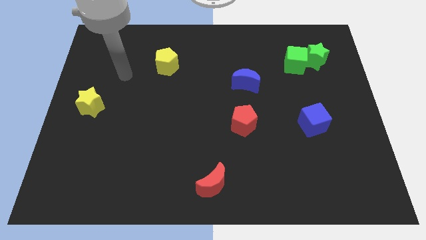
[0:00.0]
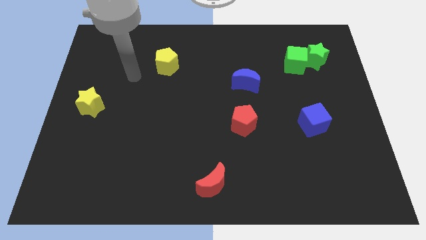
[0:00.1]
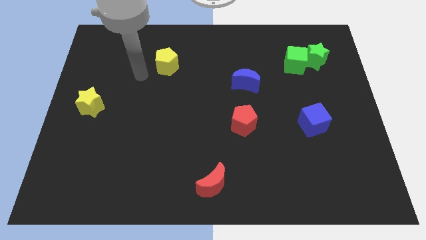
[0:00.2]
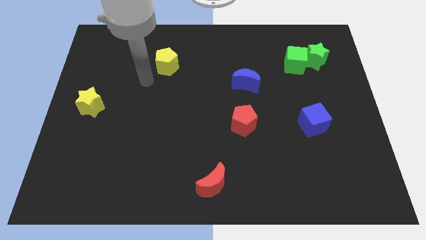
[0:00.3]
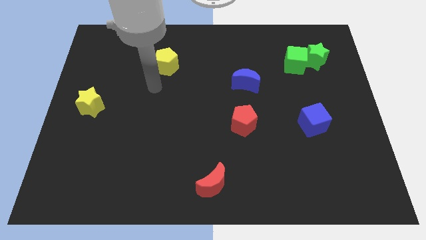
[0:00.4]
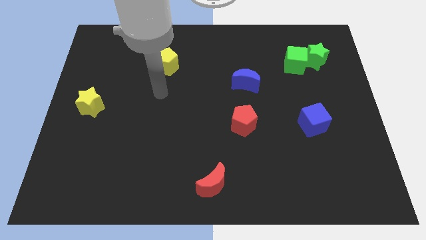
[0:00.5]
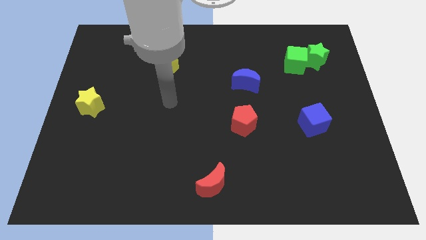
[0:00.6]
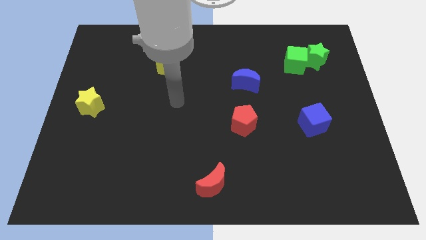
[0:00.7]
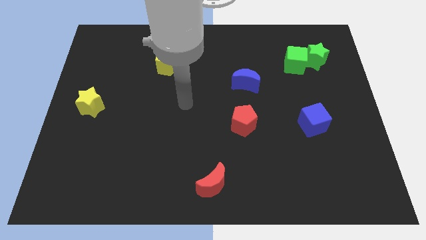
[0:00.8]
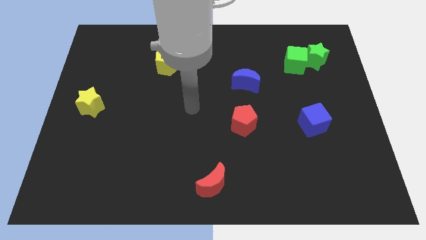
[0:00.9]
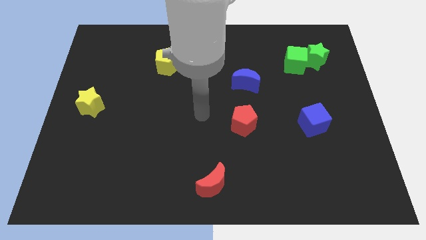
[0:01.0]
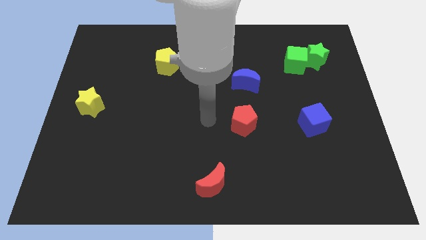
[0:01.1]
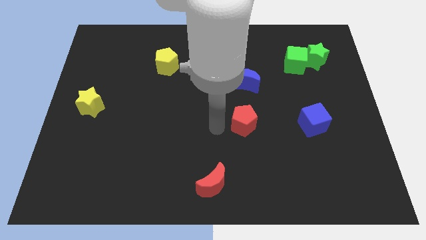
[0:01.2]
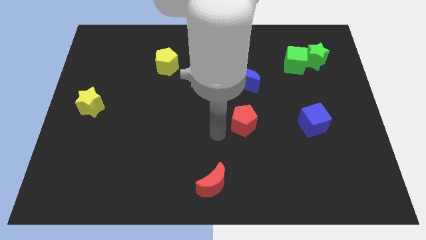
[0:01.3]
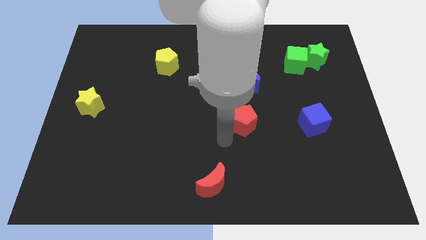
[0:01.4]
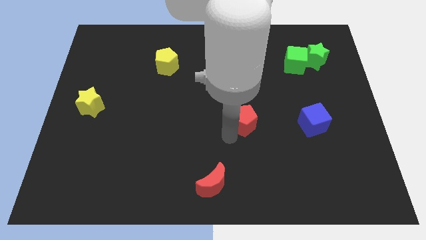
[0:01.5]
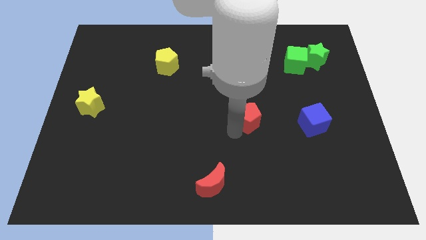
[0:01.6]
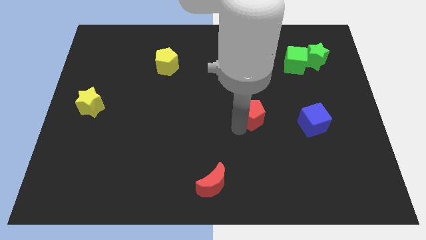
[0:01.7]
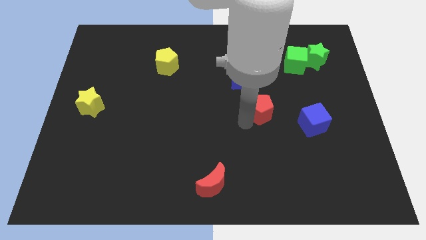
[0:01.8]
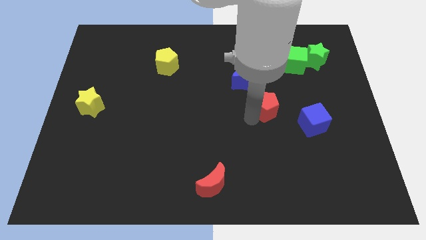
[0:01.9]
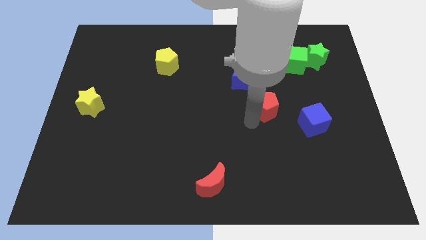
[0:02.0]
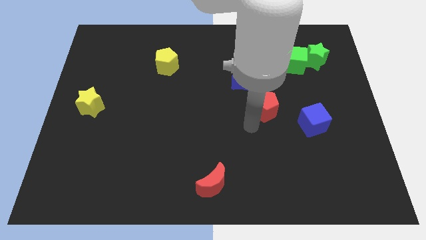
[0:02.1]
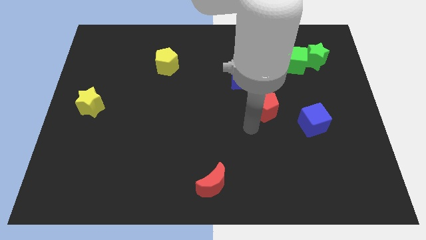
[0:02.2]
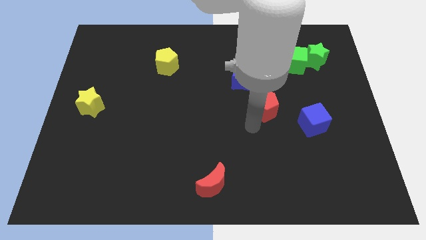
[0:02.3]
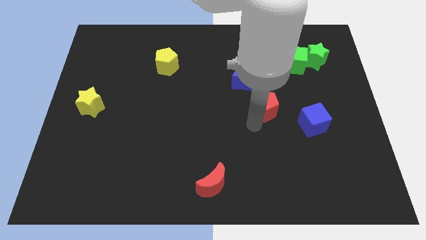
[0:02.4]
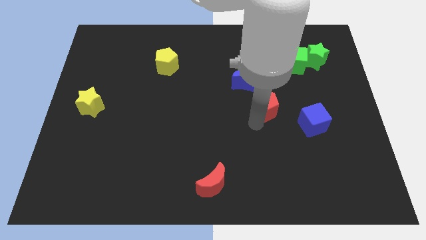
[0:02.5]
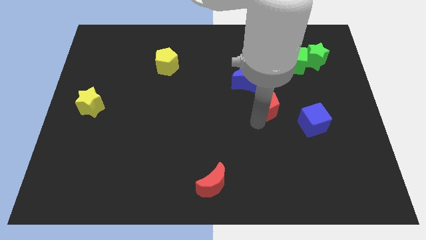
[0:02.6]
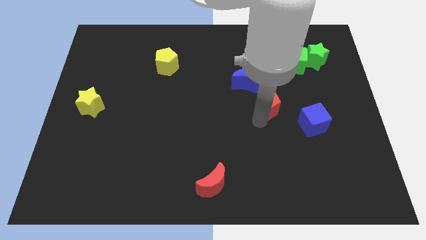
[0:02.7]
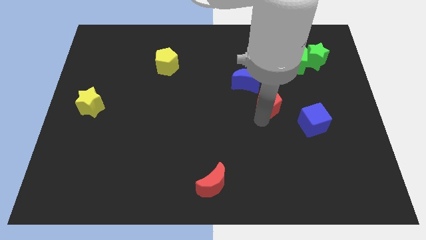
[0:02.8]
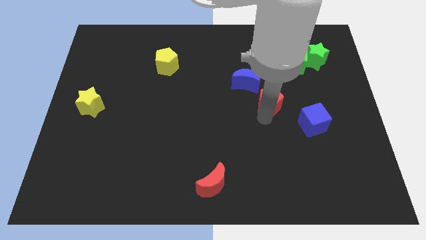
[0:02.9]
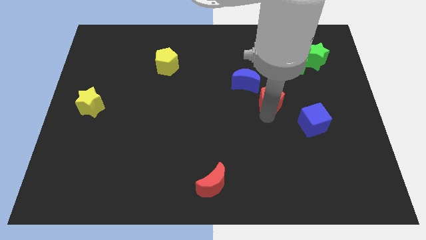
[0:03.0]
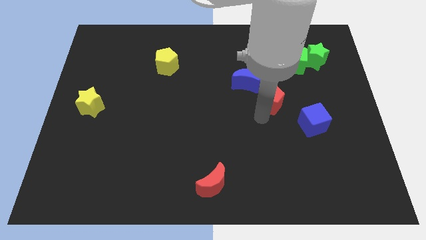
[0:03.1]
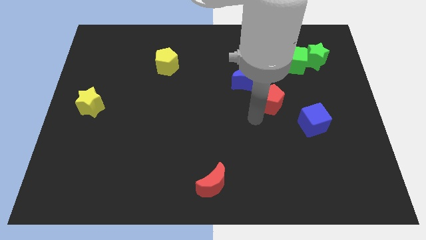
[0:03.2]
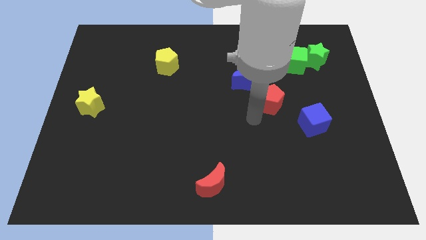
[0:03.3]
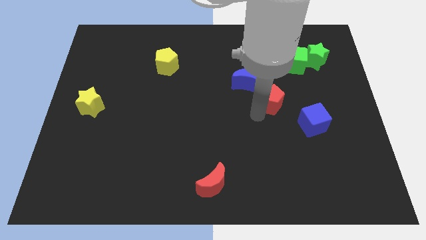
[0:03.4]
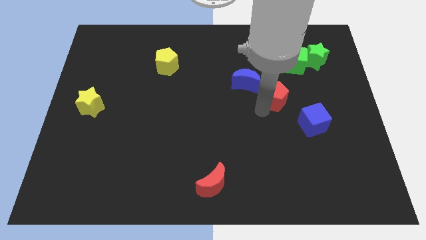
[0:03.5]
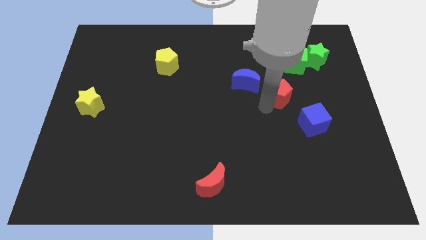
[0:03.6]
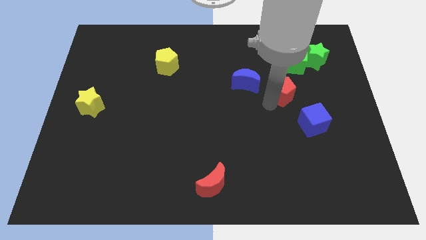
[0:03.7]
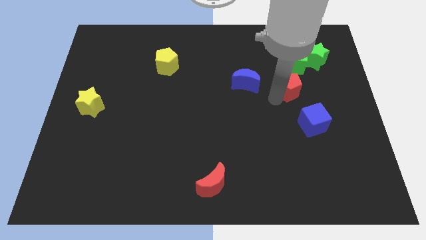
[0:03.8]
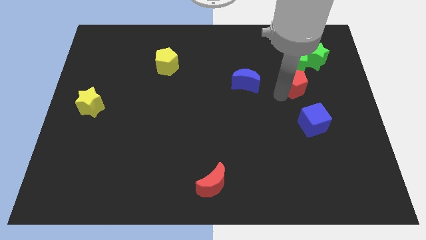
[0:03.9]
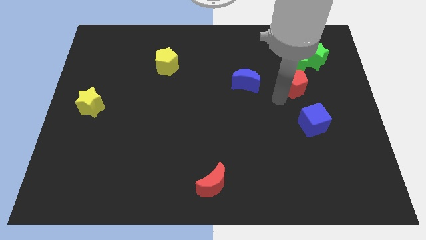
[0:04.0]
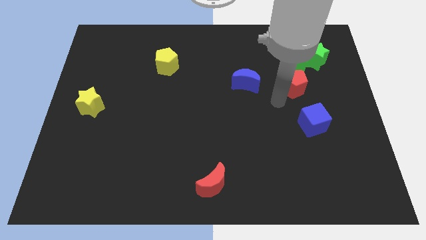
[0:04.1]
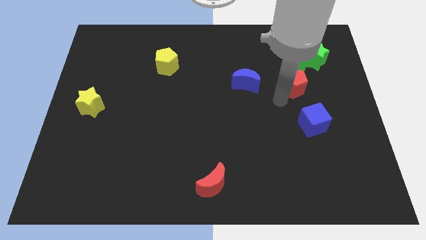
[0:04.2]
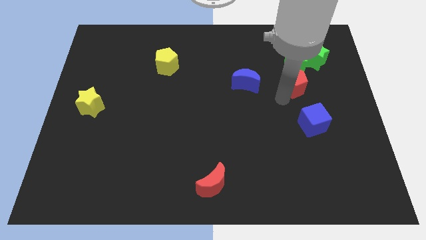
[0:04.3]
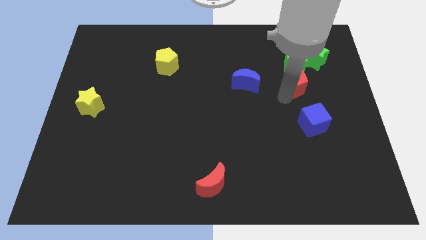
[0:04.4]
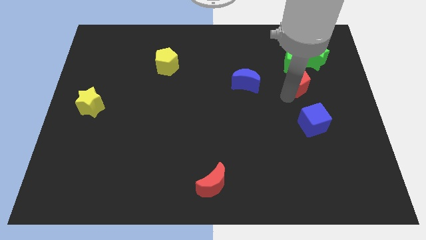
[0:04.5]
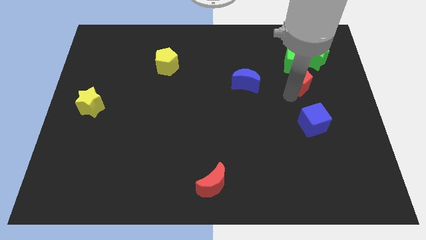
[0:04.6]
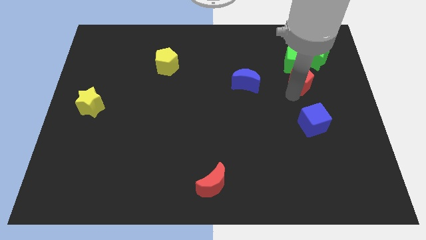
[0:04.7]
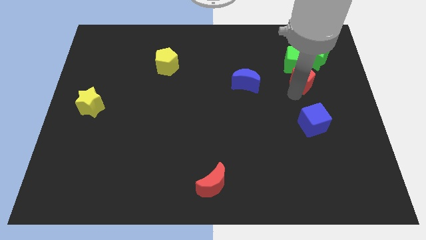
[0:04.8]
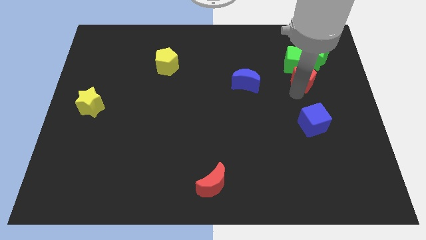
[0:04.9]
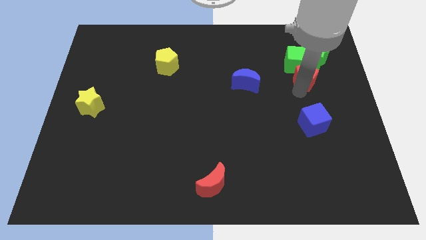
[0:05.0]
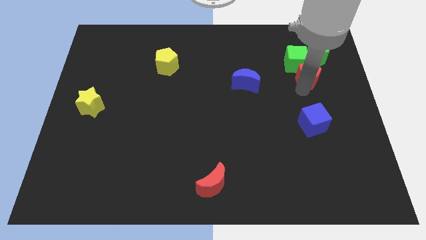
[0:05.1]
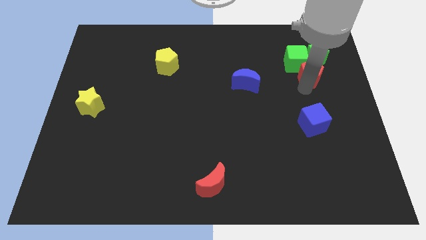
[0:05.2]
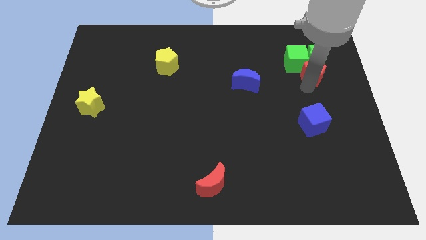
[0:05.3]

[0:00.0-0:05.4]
put the red pentagon to the green star

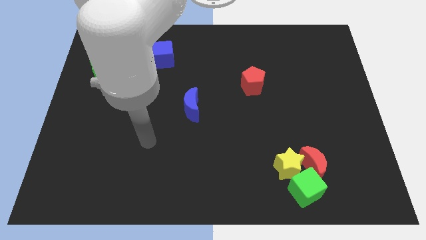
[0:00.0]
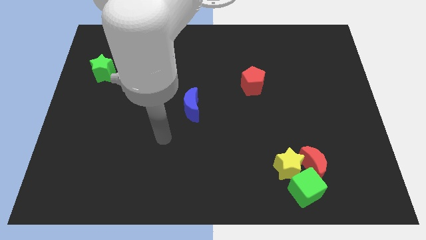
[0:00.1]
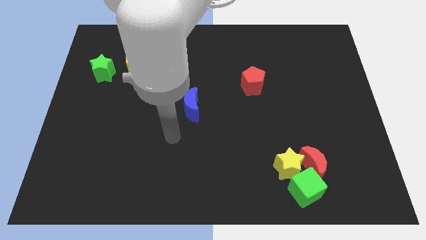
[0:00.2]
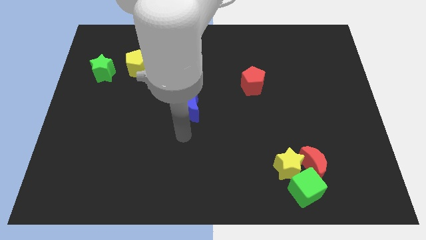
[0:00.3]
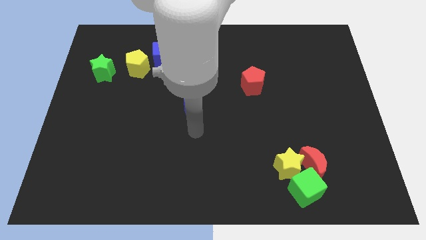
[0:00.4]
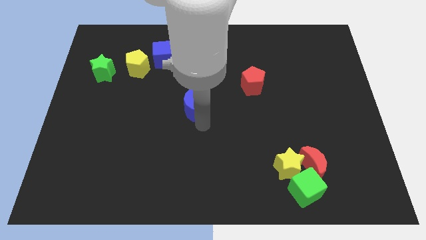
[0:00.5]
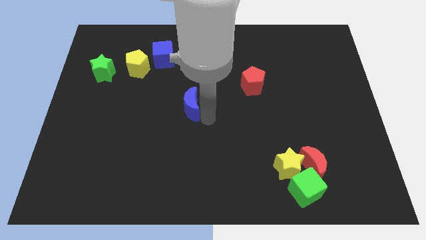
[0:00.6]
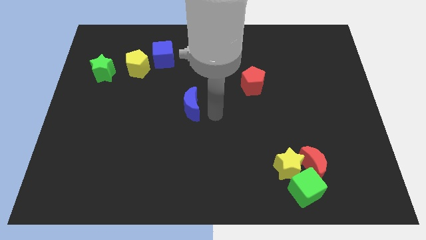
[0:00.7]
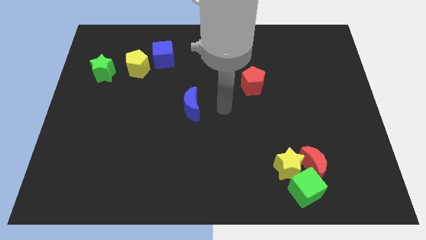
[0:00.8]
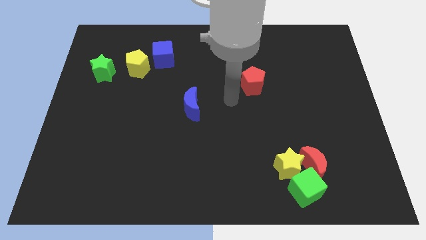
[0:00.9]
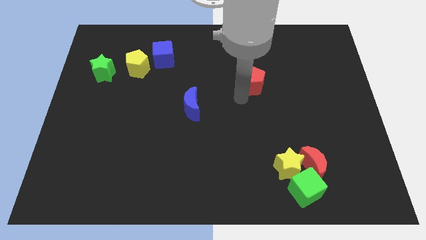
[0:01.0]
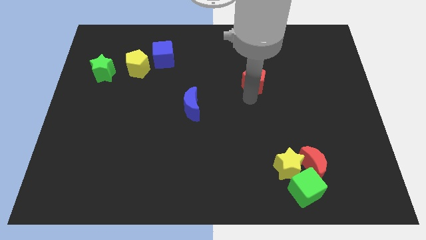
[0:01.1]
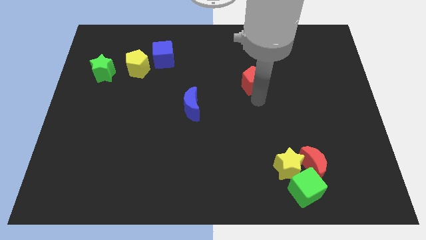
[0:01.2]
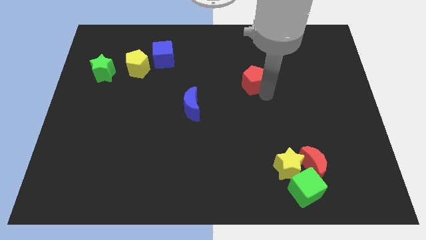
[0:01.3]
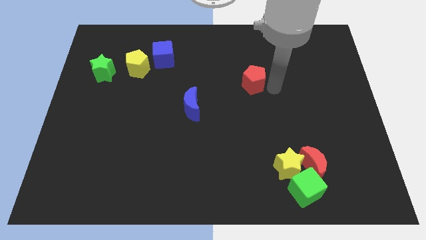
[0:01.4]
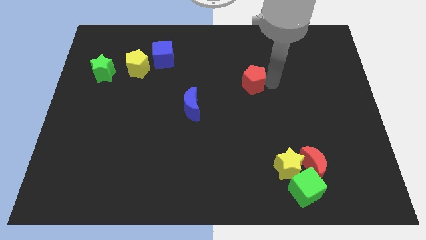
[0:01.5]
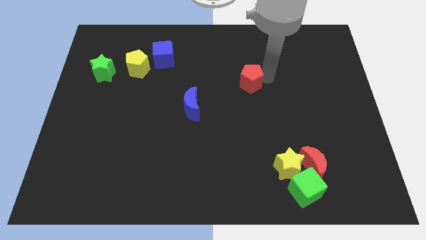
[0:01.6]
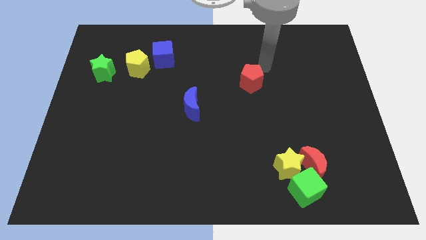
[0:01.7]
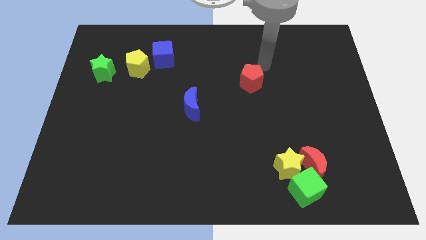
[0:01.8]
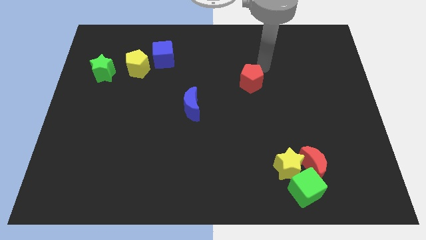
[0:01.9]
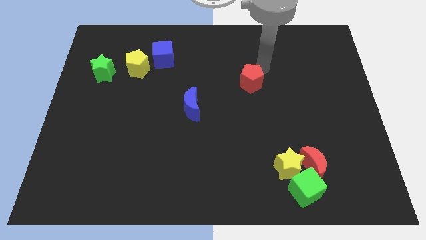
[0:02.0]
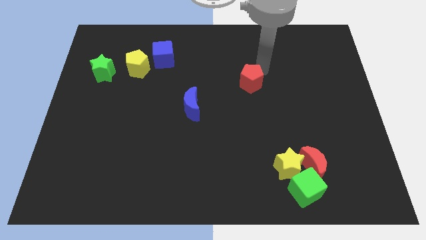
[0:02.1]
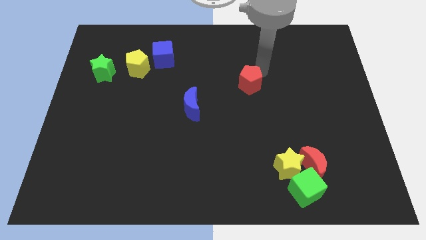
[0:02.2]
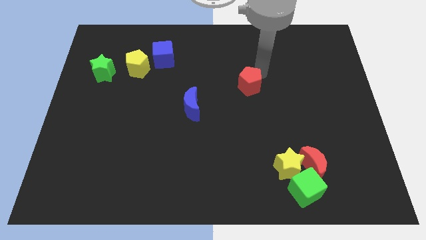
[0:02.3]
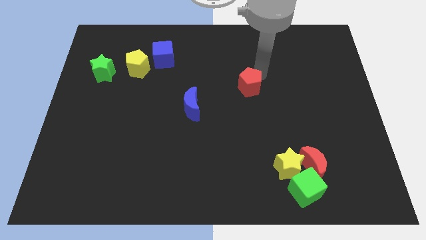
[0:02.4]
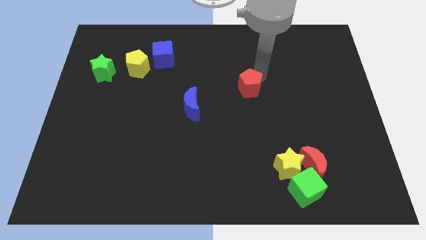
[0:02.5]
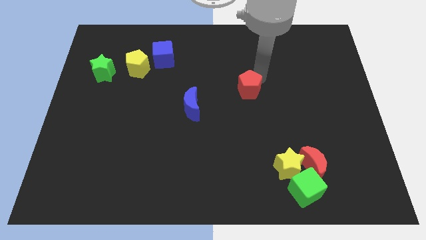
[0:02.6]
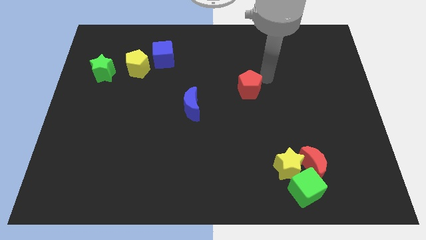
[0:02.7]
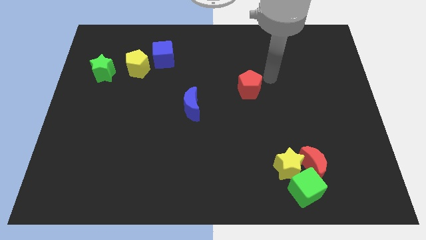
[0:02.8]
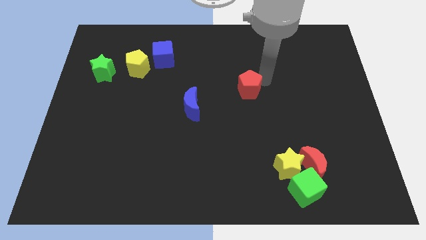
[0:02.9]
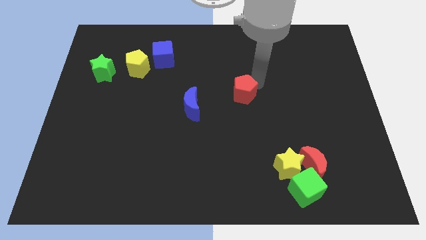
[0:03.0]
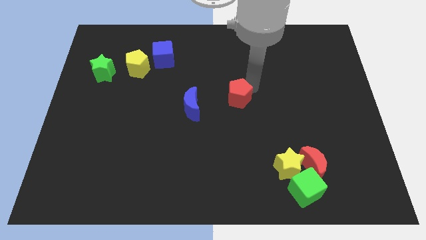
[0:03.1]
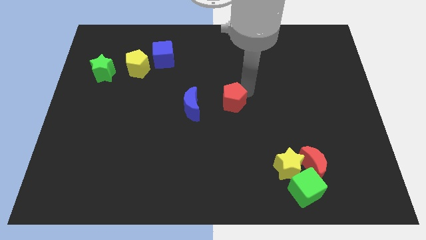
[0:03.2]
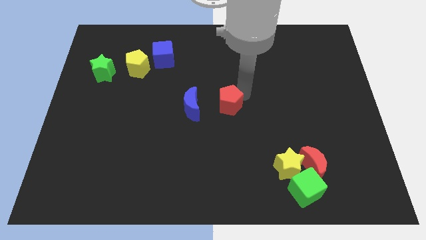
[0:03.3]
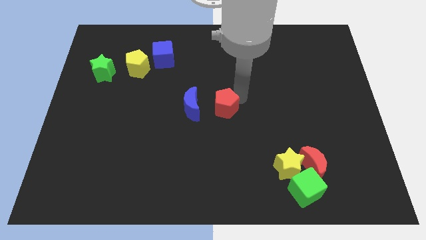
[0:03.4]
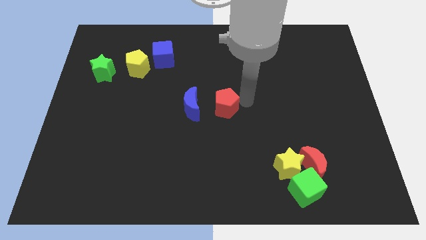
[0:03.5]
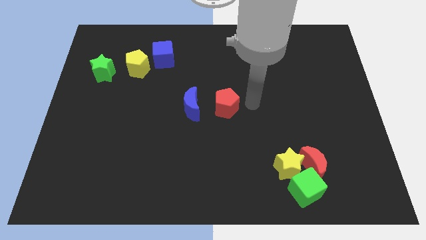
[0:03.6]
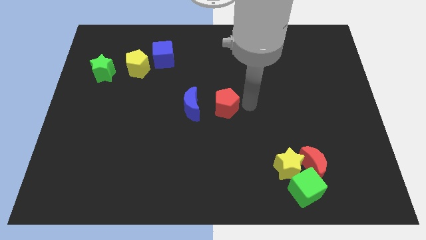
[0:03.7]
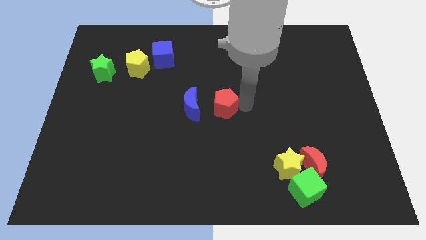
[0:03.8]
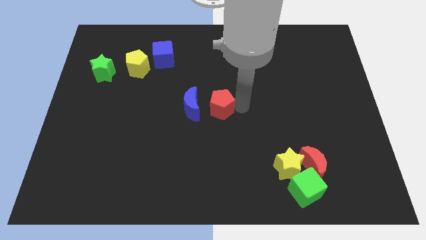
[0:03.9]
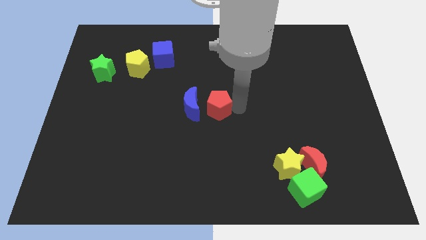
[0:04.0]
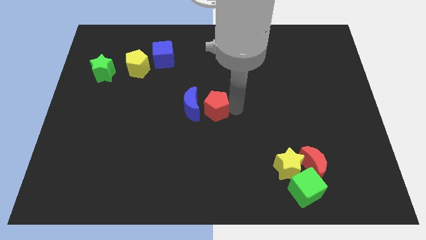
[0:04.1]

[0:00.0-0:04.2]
put the red pentagon towards the blue moon
